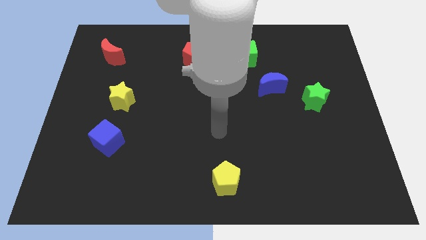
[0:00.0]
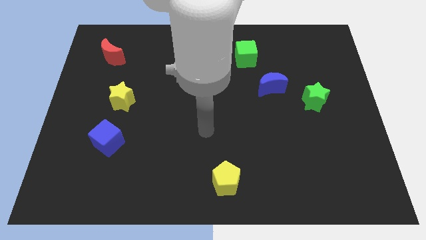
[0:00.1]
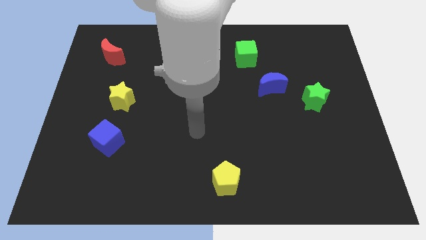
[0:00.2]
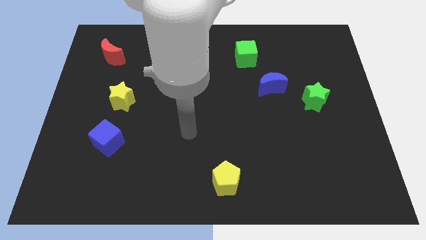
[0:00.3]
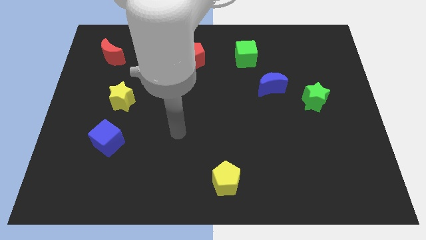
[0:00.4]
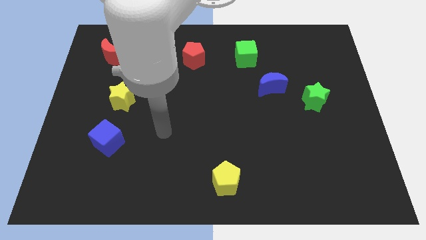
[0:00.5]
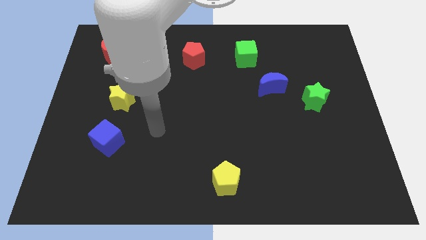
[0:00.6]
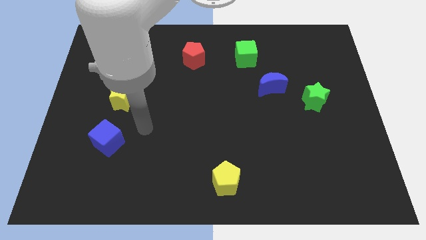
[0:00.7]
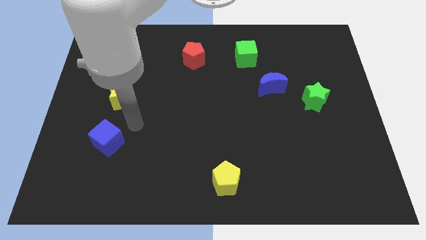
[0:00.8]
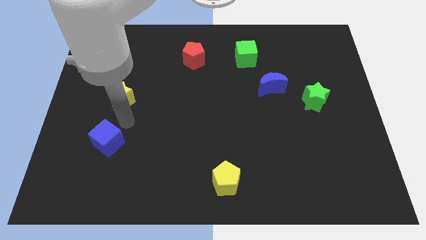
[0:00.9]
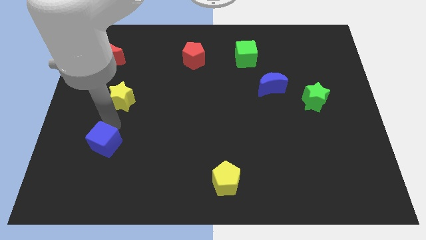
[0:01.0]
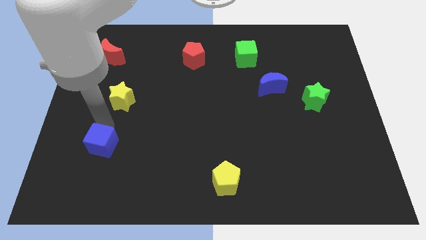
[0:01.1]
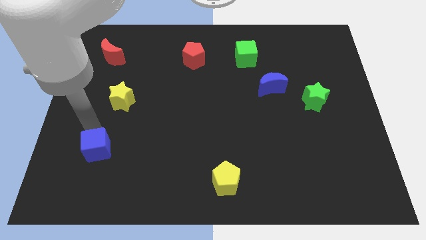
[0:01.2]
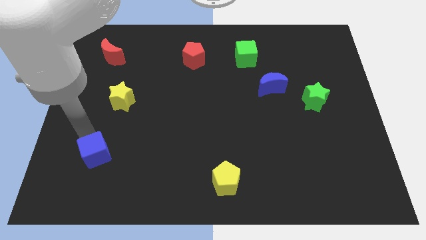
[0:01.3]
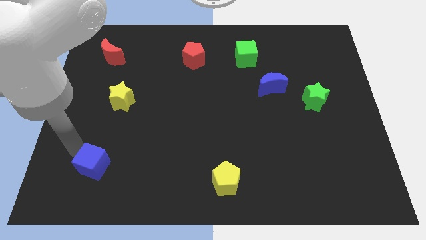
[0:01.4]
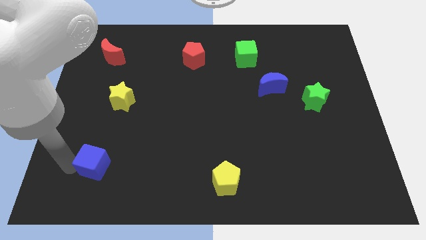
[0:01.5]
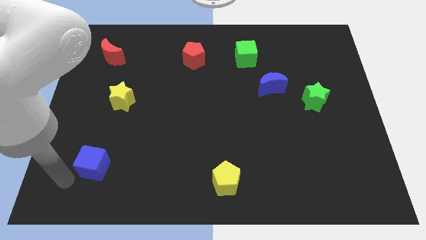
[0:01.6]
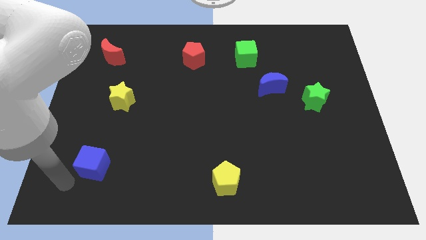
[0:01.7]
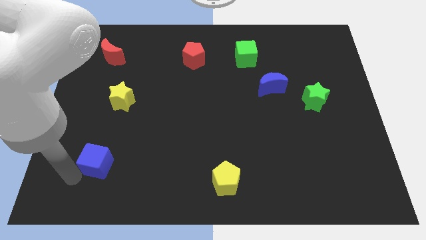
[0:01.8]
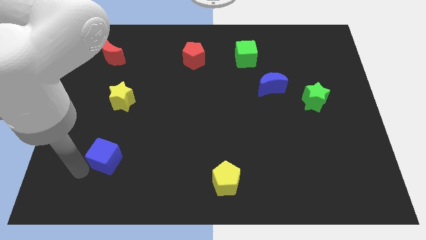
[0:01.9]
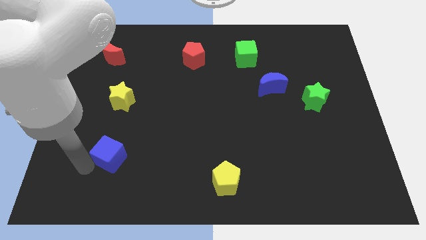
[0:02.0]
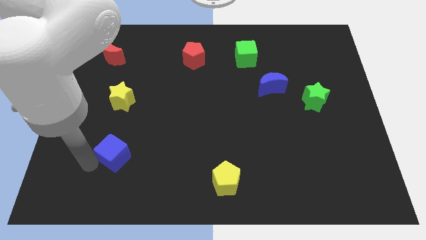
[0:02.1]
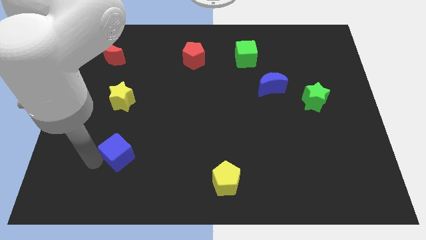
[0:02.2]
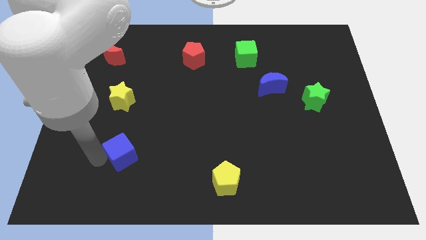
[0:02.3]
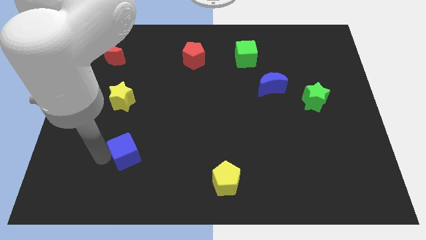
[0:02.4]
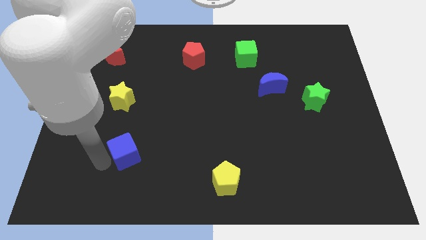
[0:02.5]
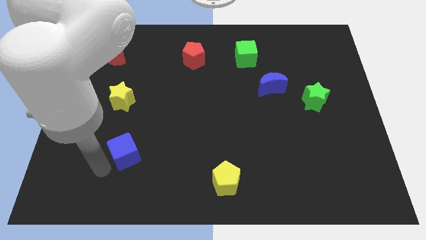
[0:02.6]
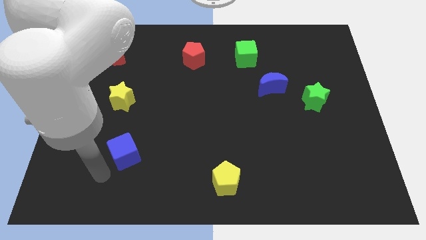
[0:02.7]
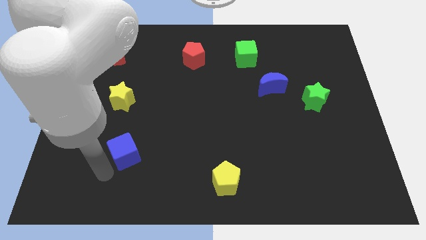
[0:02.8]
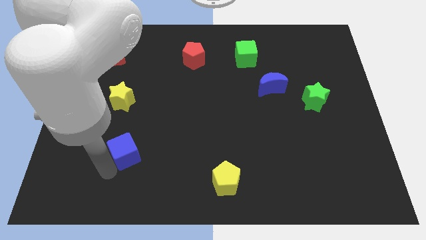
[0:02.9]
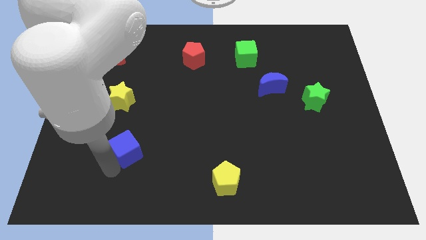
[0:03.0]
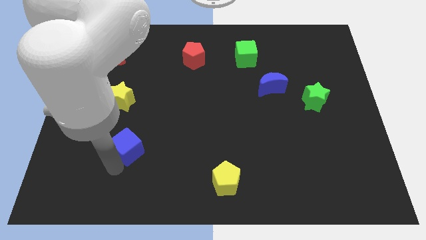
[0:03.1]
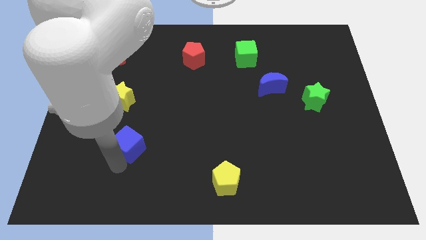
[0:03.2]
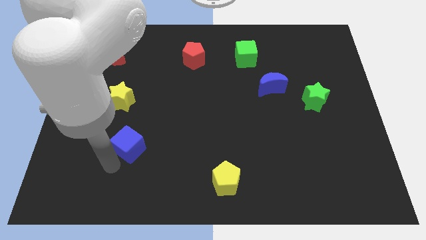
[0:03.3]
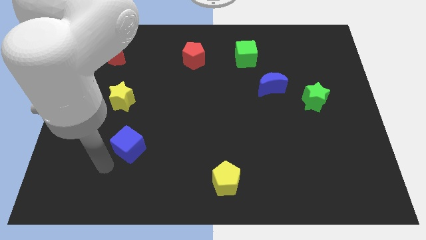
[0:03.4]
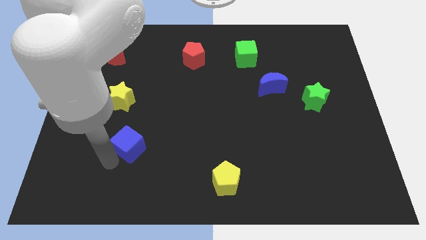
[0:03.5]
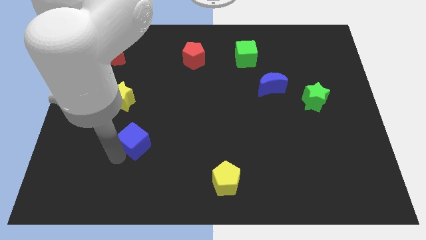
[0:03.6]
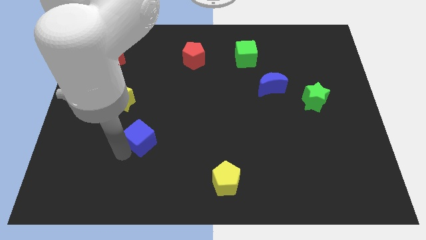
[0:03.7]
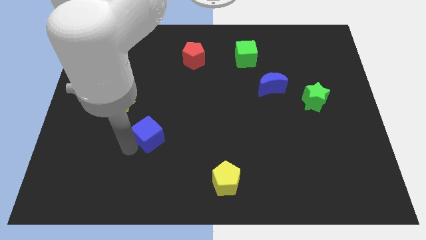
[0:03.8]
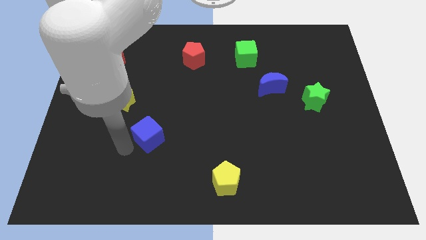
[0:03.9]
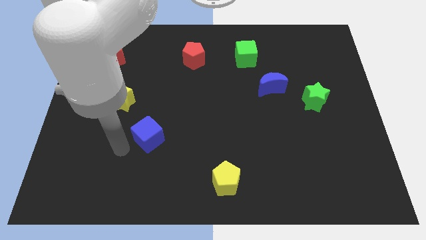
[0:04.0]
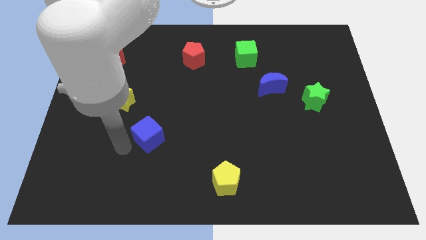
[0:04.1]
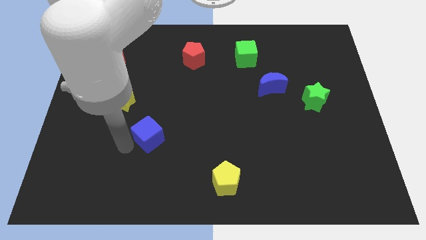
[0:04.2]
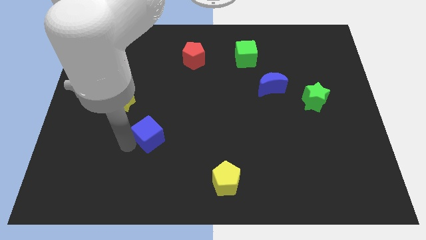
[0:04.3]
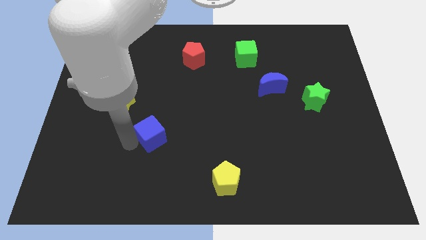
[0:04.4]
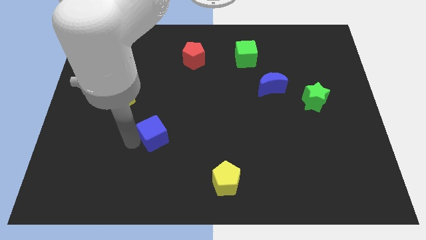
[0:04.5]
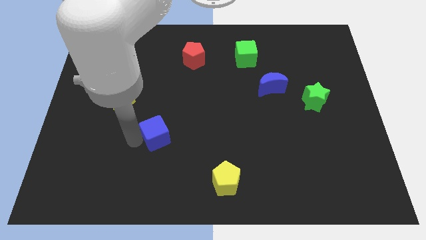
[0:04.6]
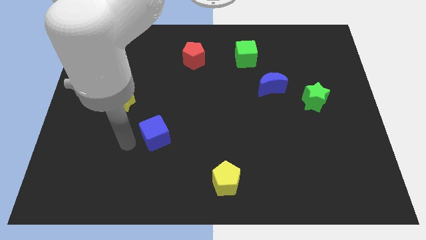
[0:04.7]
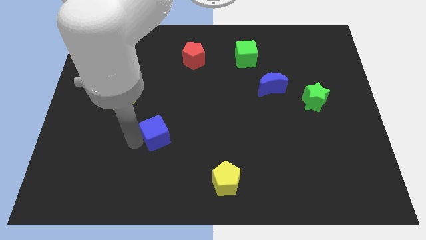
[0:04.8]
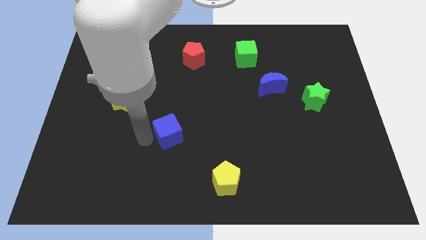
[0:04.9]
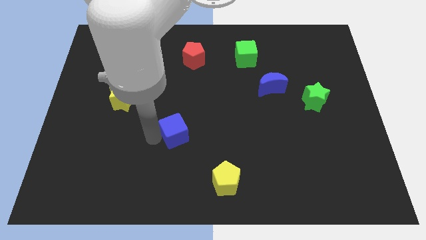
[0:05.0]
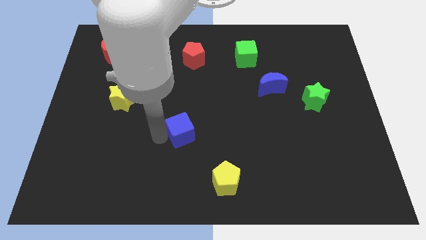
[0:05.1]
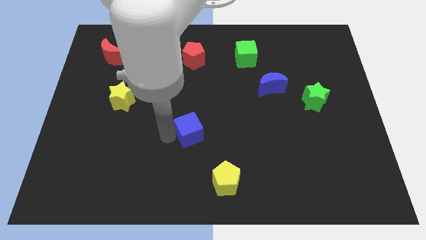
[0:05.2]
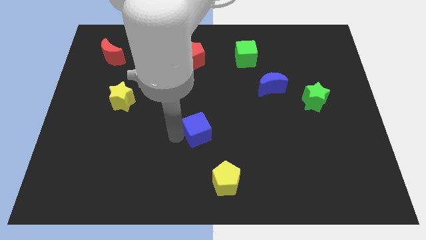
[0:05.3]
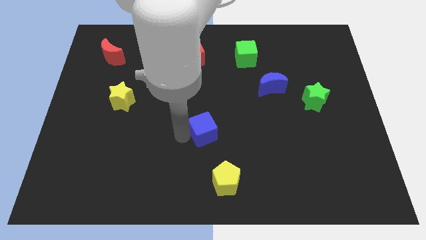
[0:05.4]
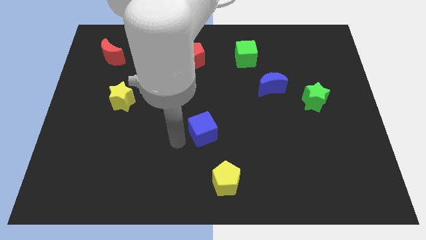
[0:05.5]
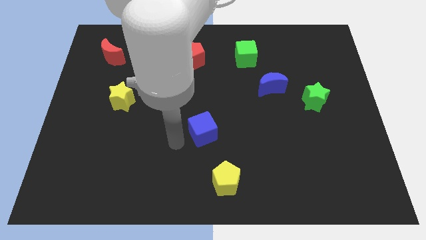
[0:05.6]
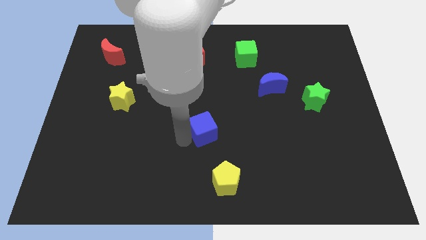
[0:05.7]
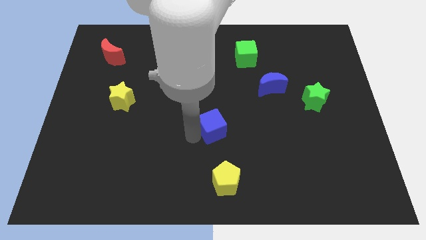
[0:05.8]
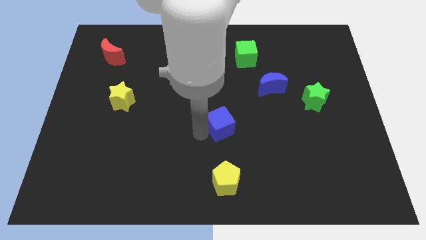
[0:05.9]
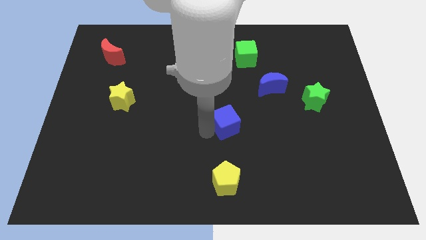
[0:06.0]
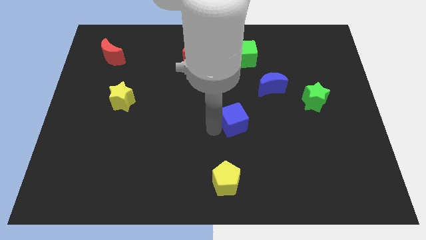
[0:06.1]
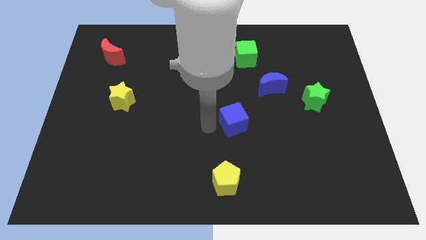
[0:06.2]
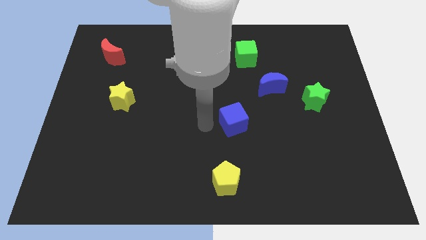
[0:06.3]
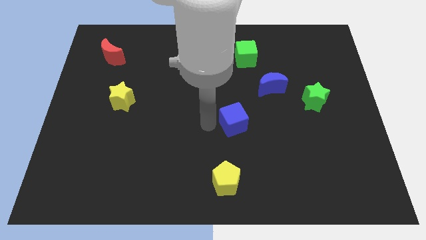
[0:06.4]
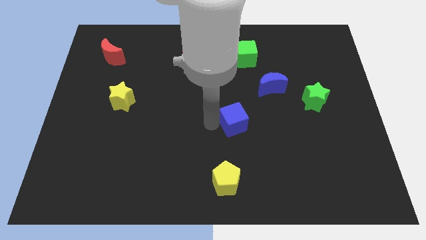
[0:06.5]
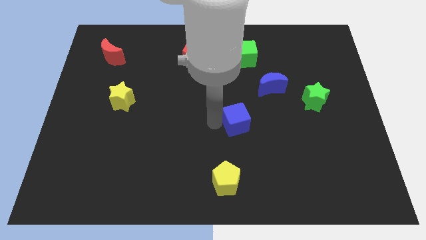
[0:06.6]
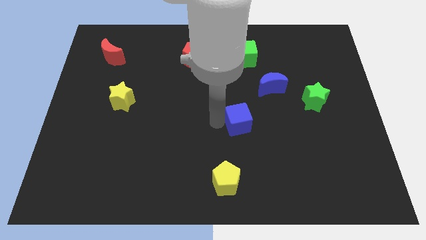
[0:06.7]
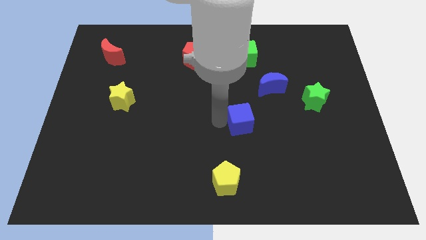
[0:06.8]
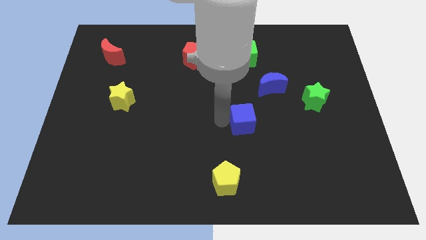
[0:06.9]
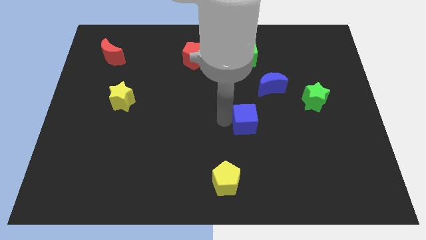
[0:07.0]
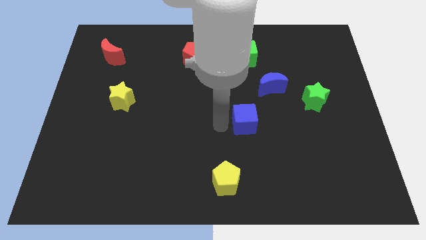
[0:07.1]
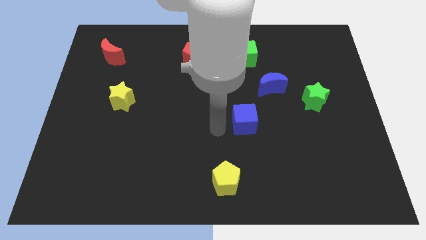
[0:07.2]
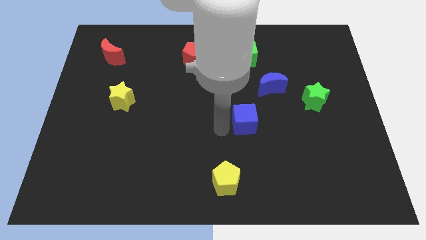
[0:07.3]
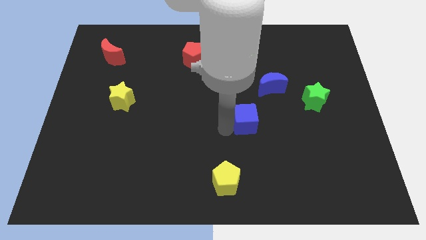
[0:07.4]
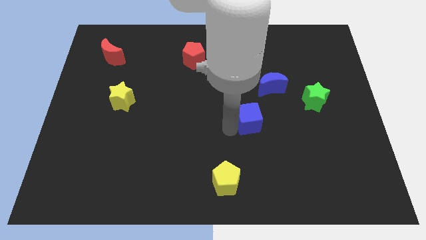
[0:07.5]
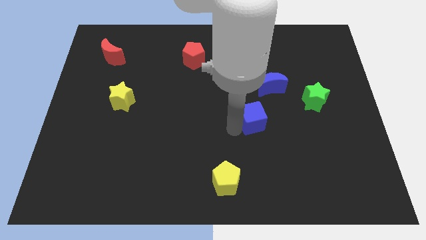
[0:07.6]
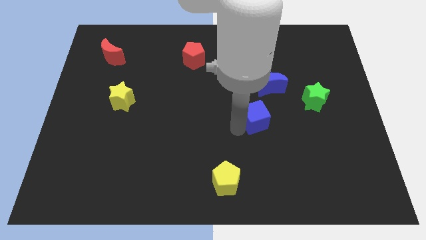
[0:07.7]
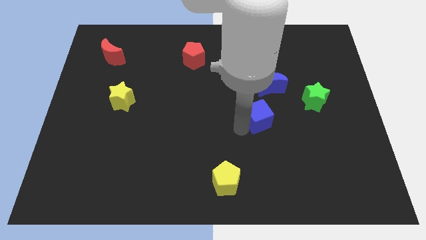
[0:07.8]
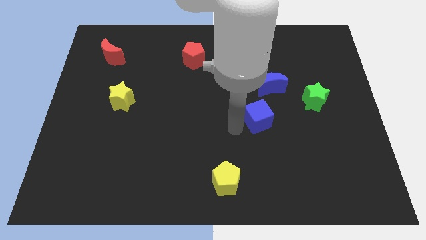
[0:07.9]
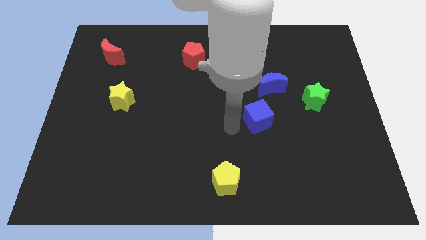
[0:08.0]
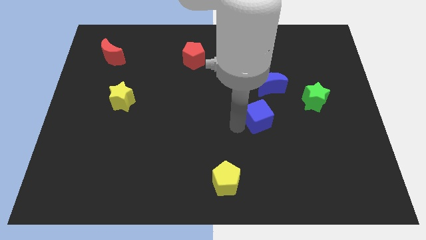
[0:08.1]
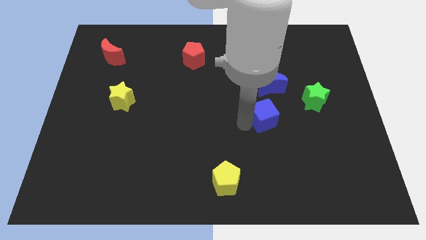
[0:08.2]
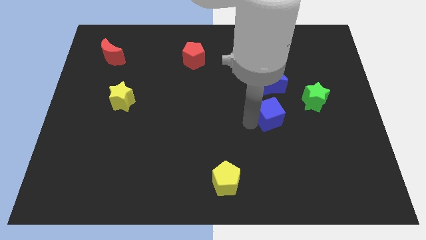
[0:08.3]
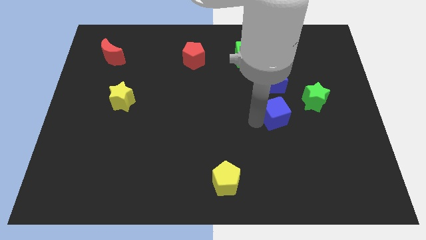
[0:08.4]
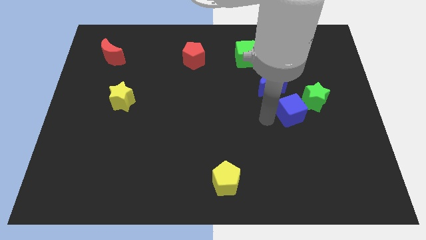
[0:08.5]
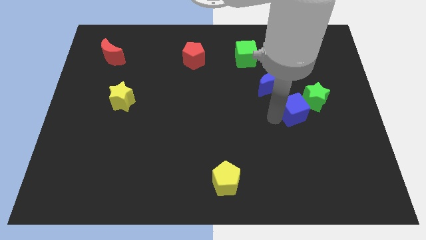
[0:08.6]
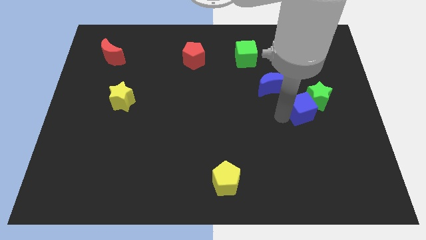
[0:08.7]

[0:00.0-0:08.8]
slide the blue cube next to the green star
